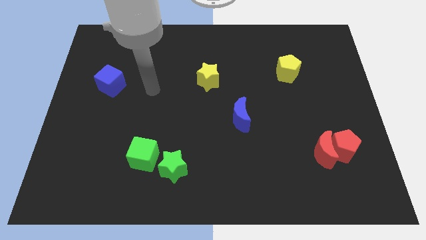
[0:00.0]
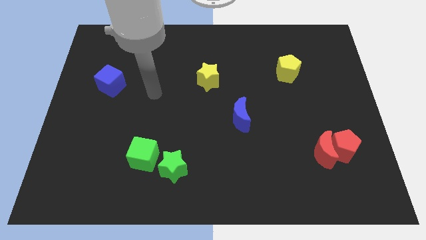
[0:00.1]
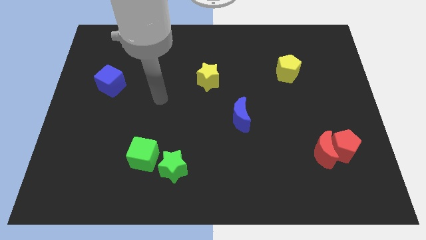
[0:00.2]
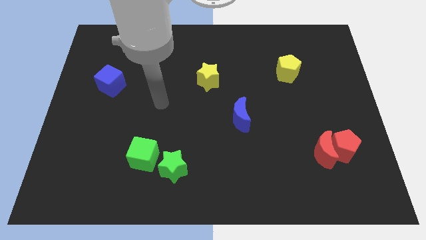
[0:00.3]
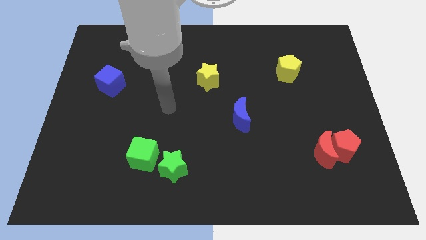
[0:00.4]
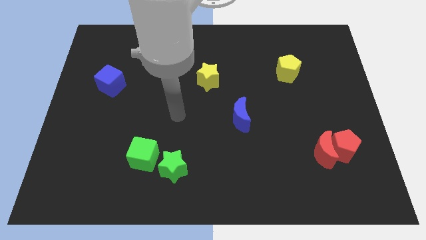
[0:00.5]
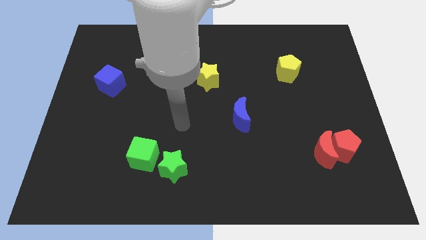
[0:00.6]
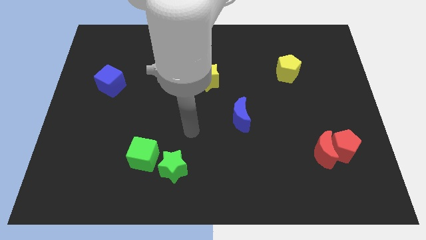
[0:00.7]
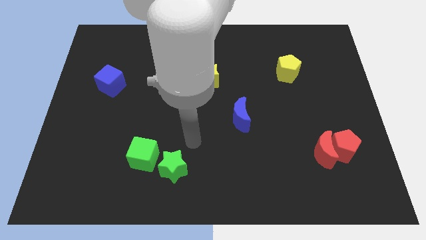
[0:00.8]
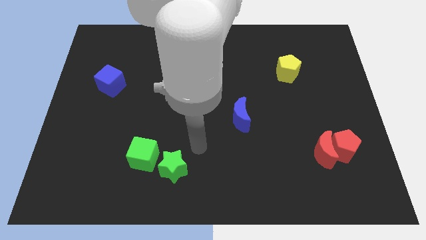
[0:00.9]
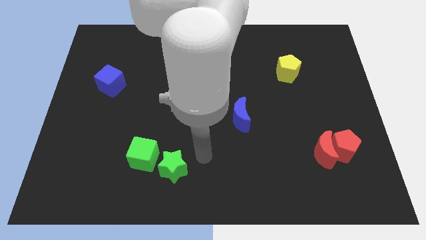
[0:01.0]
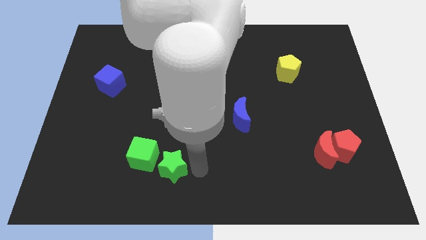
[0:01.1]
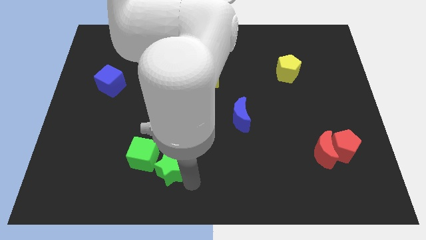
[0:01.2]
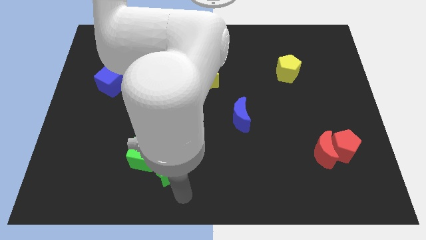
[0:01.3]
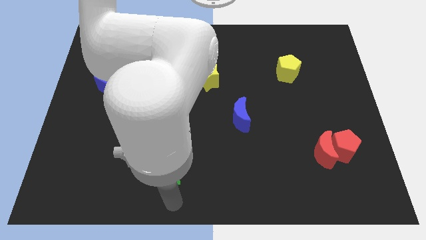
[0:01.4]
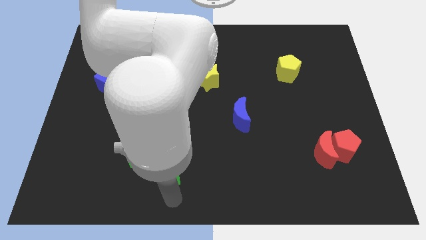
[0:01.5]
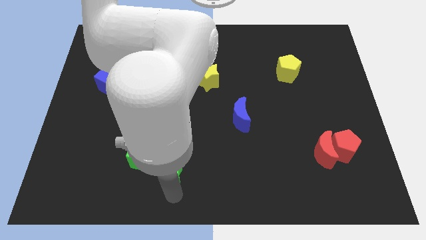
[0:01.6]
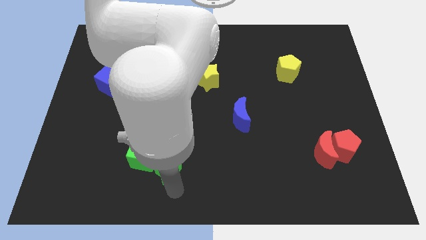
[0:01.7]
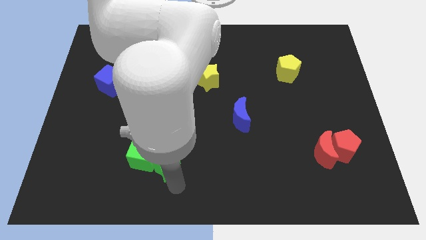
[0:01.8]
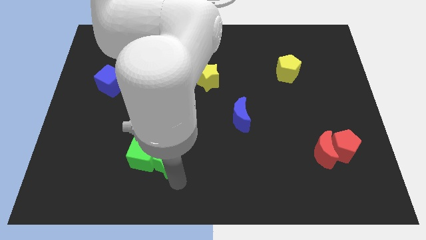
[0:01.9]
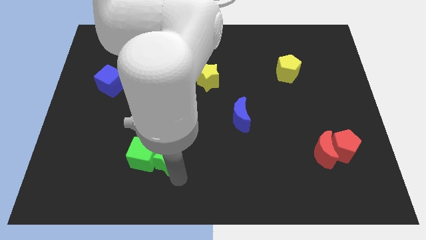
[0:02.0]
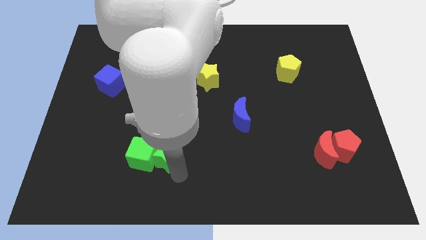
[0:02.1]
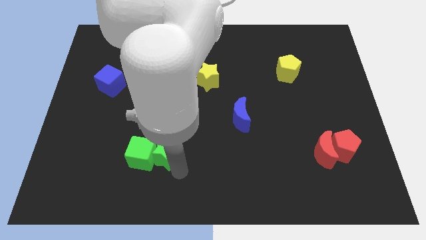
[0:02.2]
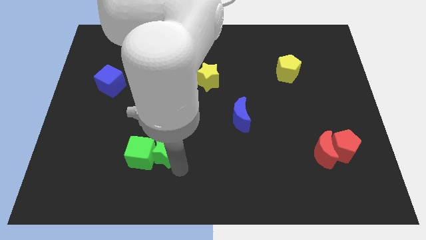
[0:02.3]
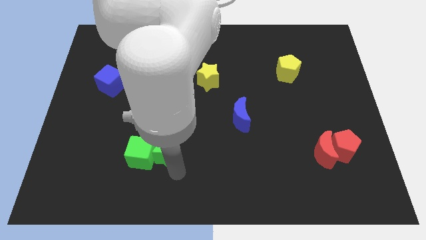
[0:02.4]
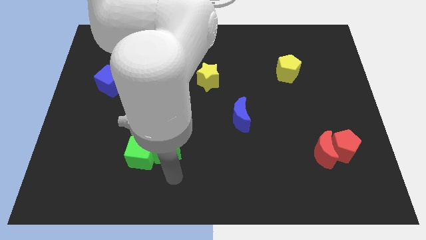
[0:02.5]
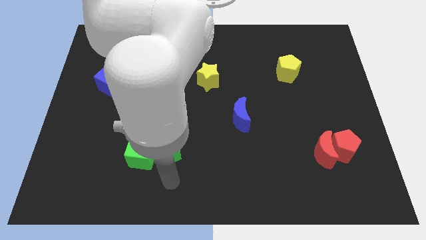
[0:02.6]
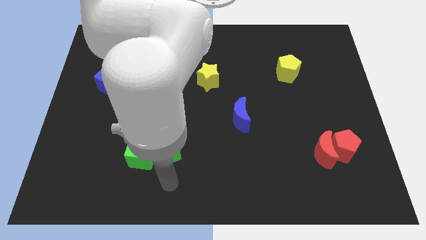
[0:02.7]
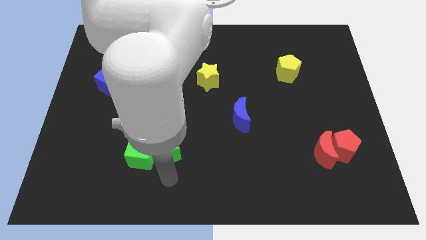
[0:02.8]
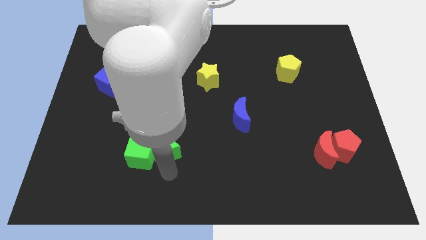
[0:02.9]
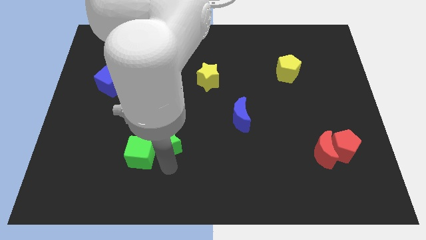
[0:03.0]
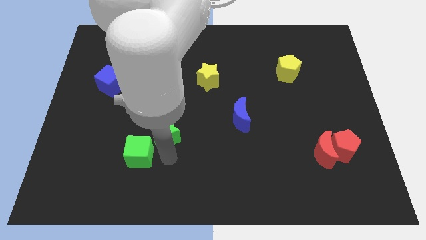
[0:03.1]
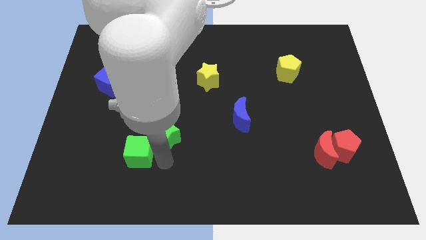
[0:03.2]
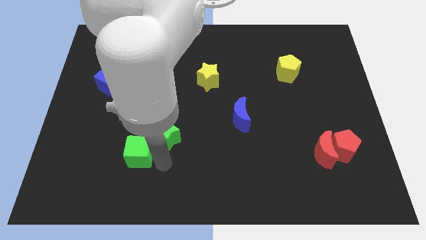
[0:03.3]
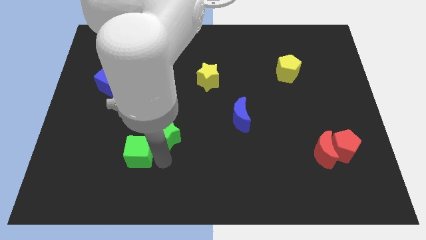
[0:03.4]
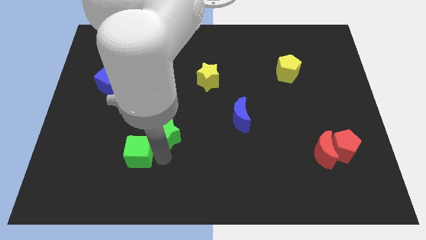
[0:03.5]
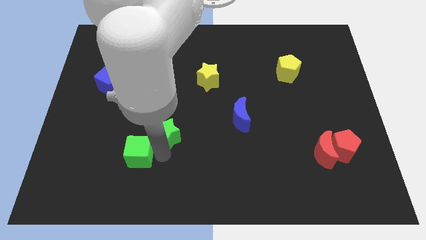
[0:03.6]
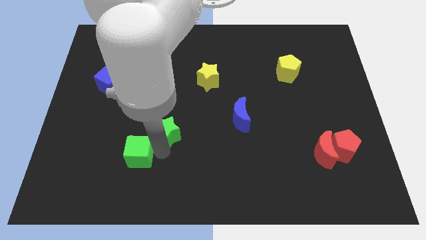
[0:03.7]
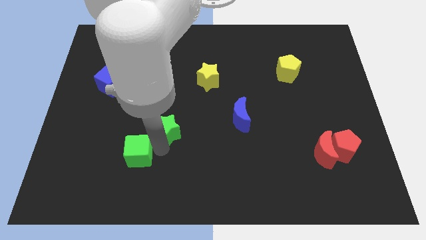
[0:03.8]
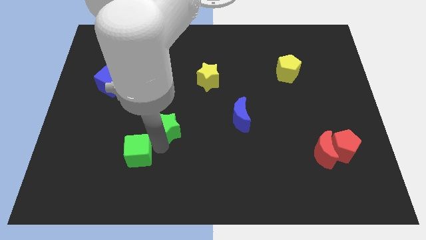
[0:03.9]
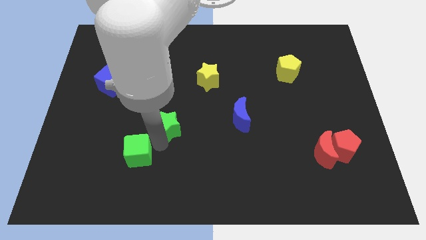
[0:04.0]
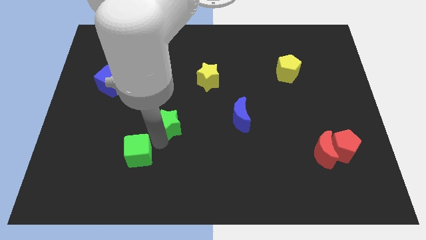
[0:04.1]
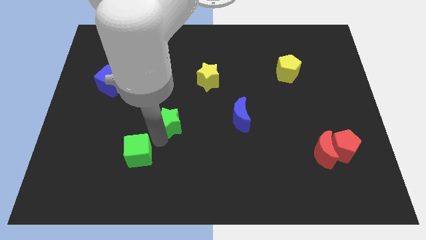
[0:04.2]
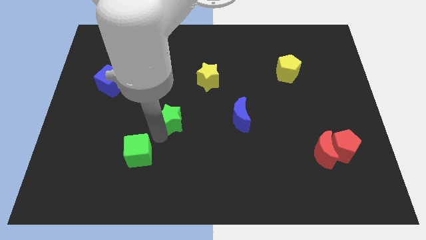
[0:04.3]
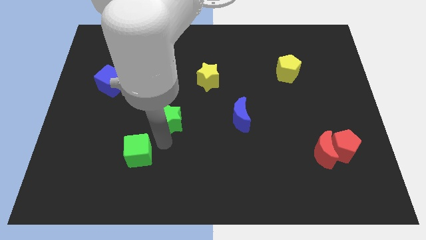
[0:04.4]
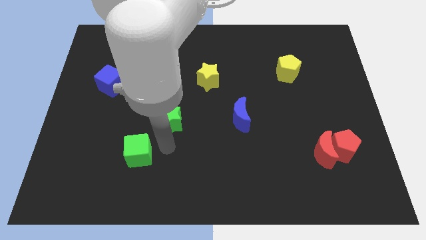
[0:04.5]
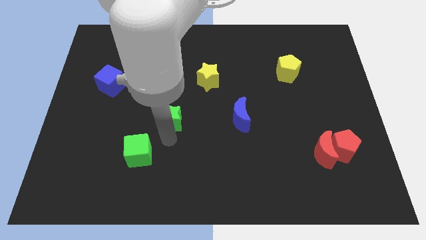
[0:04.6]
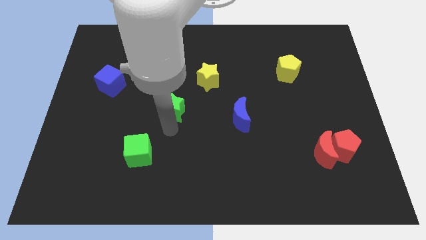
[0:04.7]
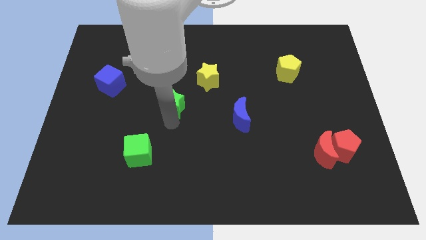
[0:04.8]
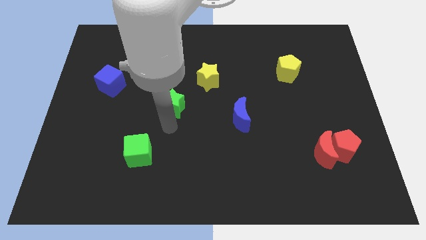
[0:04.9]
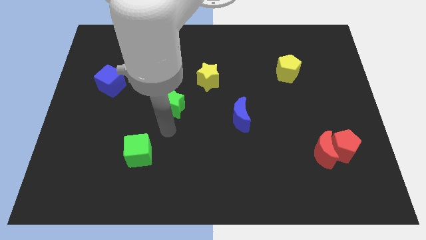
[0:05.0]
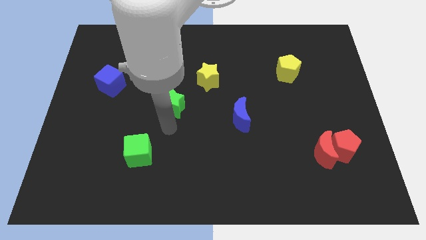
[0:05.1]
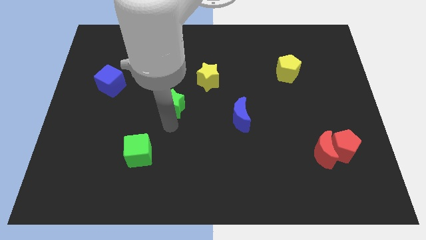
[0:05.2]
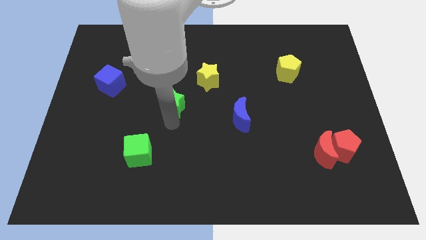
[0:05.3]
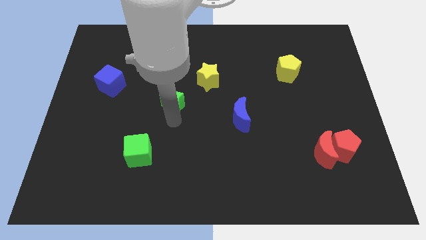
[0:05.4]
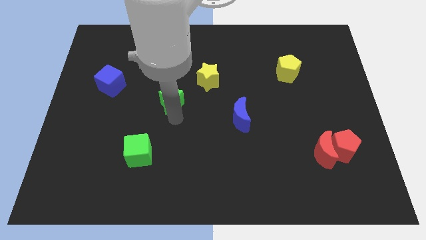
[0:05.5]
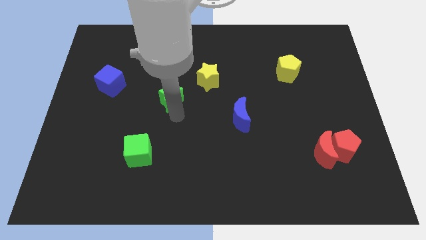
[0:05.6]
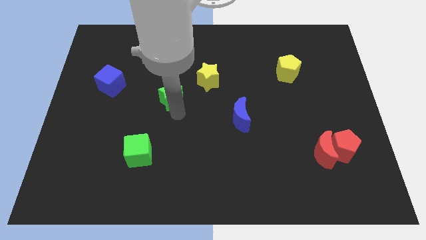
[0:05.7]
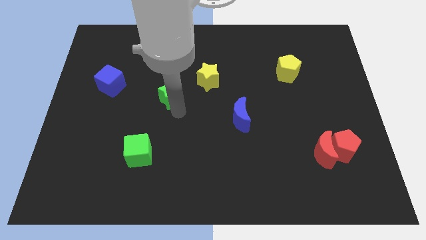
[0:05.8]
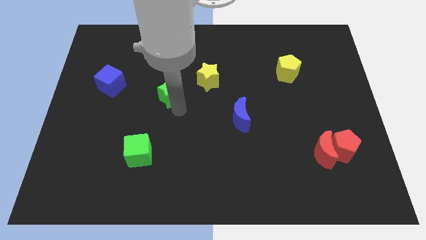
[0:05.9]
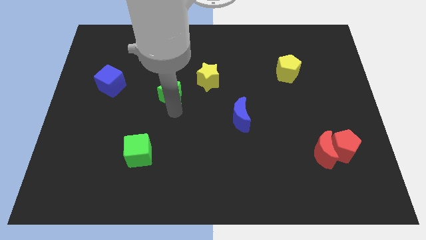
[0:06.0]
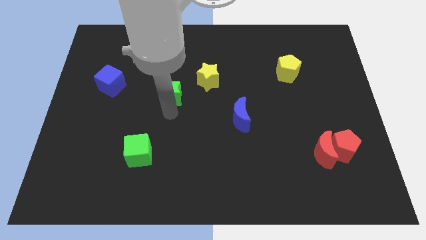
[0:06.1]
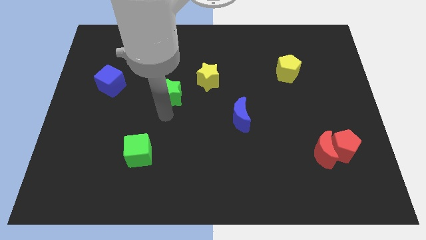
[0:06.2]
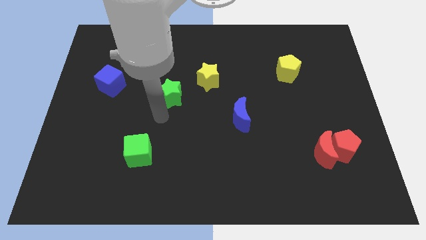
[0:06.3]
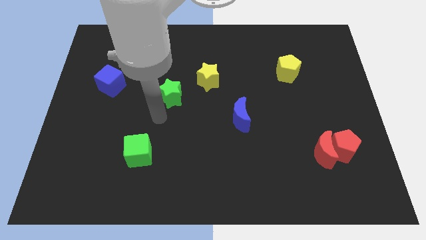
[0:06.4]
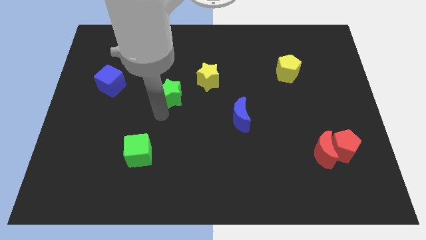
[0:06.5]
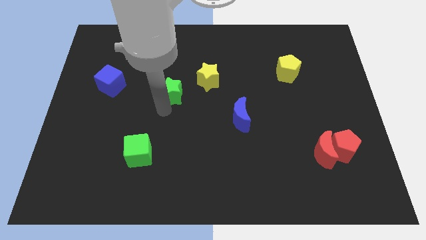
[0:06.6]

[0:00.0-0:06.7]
push the green star up

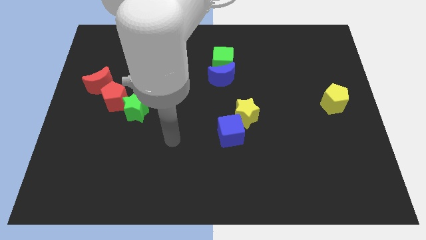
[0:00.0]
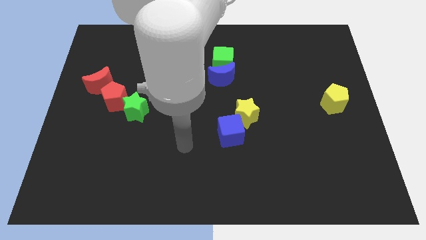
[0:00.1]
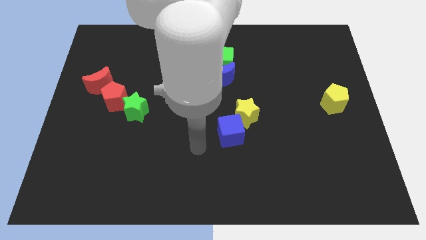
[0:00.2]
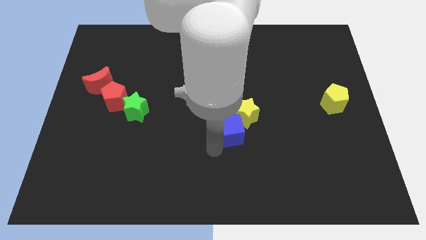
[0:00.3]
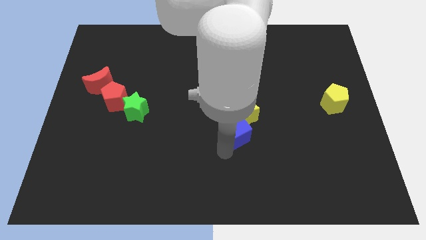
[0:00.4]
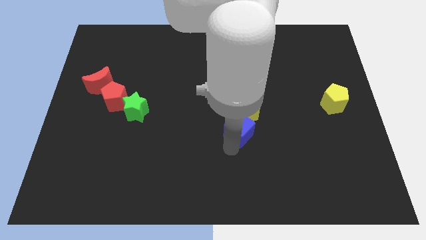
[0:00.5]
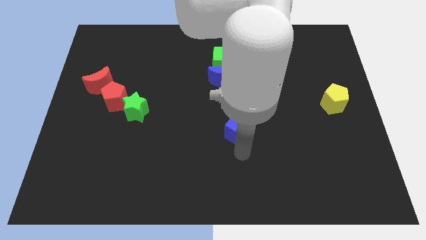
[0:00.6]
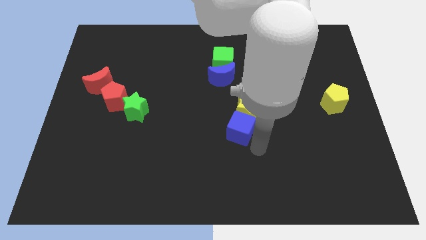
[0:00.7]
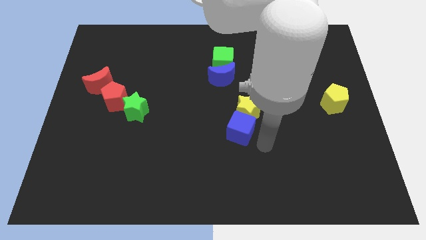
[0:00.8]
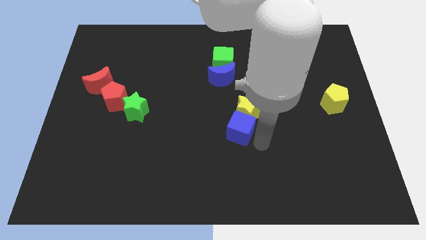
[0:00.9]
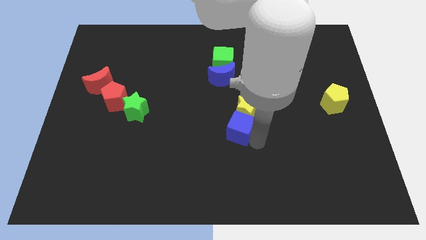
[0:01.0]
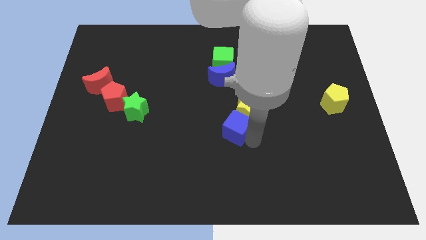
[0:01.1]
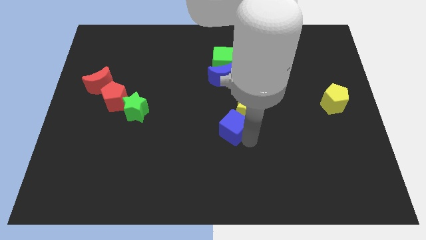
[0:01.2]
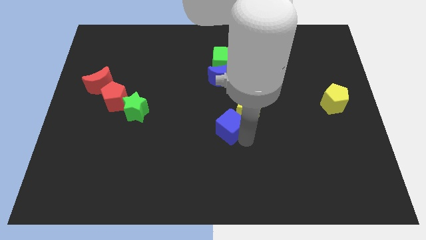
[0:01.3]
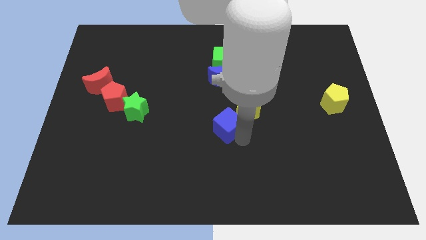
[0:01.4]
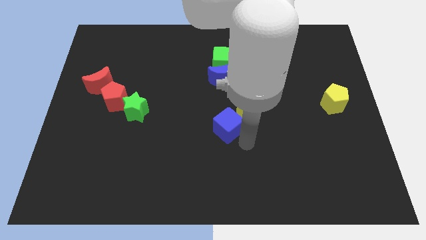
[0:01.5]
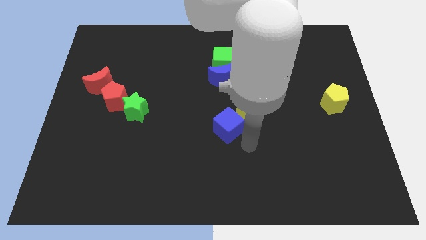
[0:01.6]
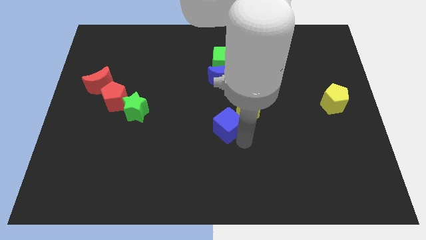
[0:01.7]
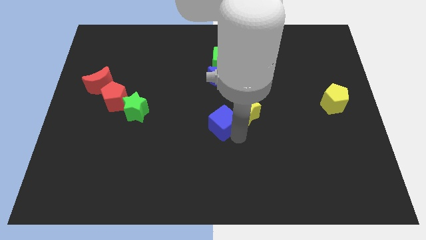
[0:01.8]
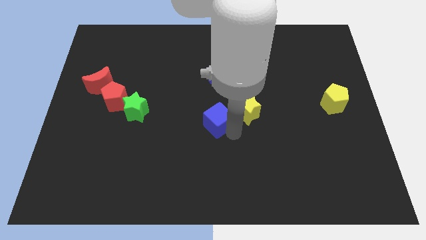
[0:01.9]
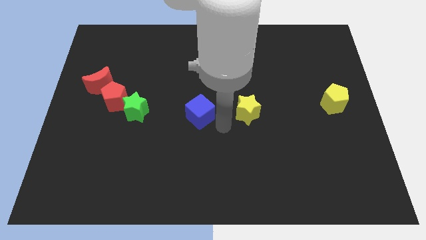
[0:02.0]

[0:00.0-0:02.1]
slightly slide the blue cube up and to the left
